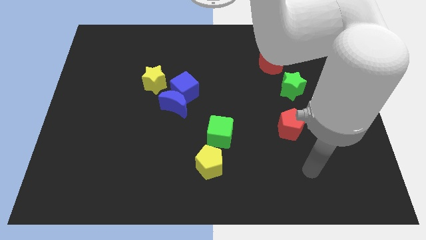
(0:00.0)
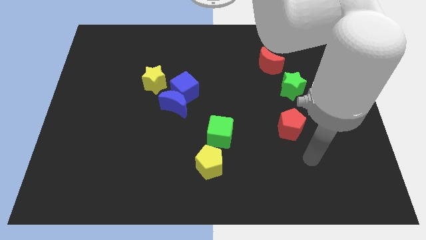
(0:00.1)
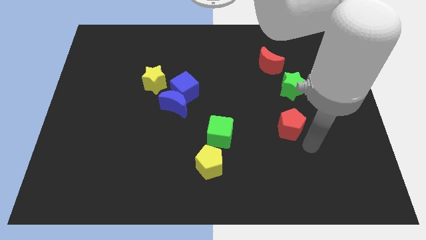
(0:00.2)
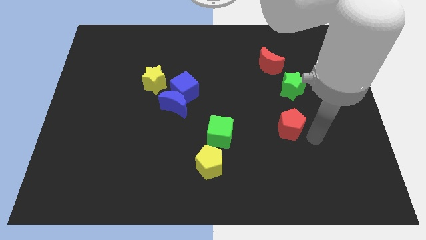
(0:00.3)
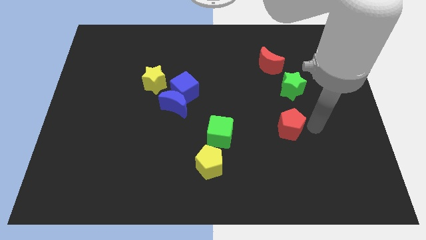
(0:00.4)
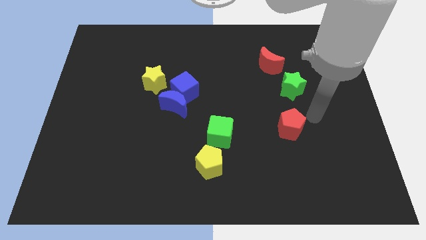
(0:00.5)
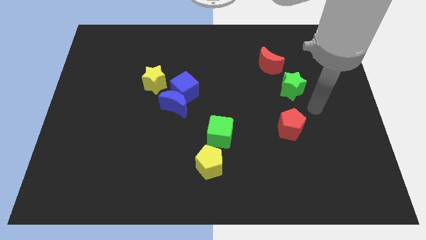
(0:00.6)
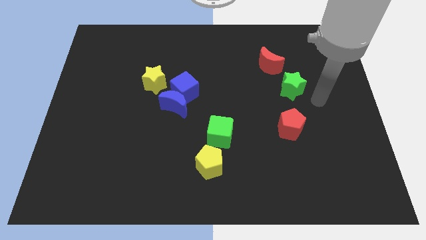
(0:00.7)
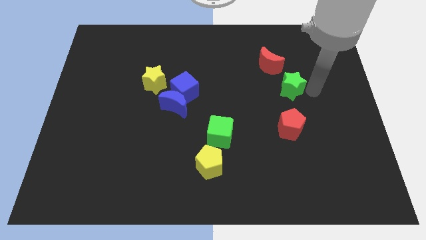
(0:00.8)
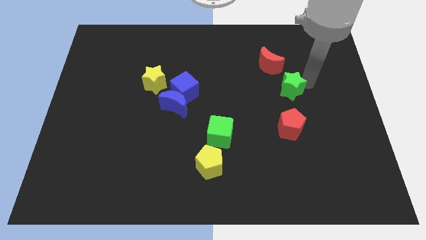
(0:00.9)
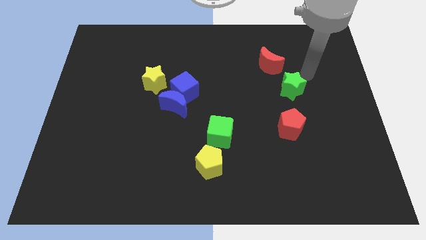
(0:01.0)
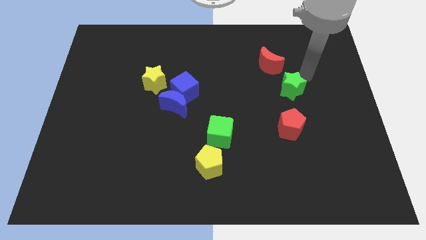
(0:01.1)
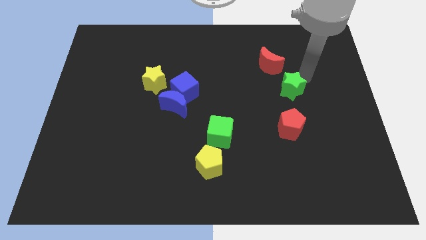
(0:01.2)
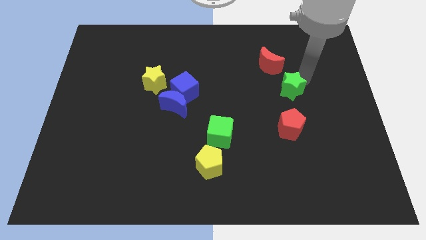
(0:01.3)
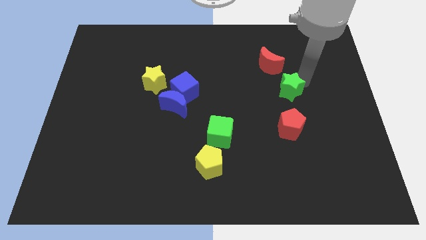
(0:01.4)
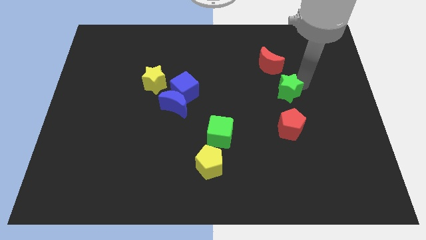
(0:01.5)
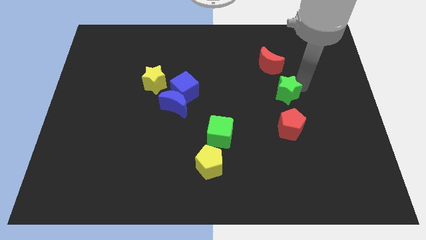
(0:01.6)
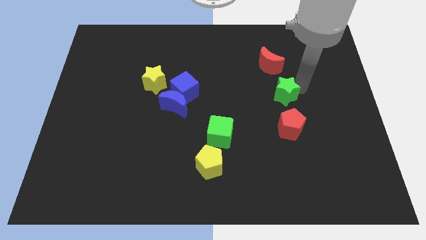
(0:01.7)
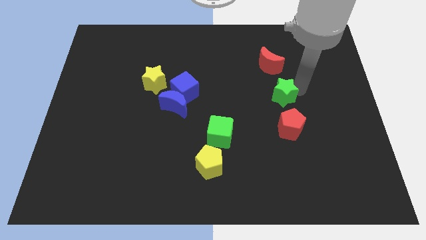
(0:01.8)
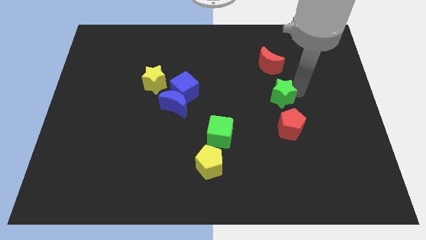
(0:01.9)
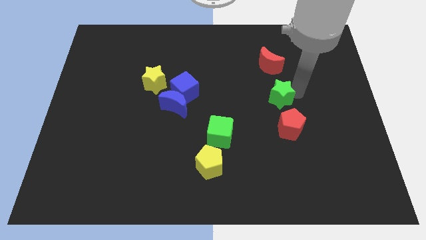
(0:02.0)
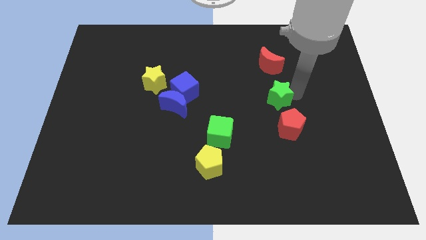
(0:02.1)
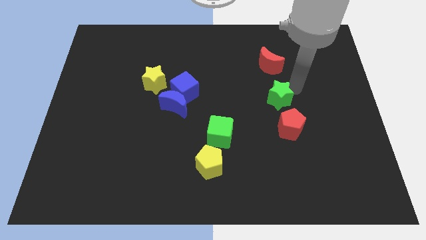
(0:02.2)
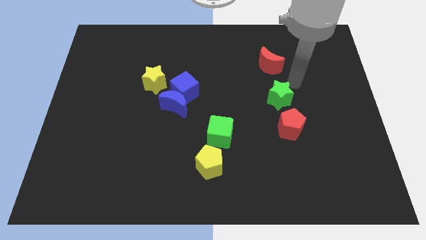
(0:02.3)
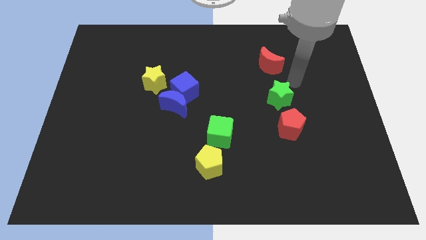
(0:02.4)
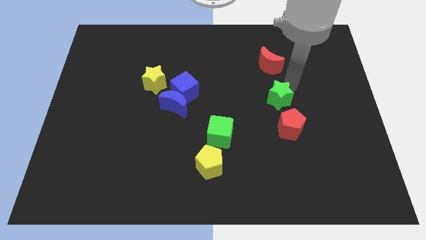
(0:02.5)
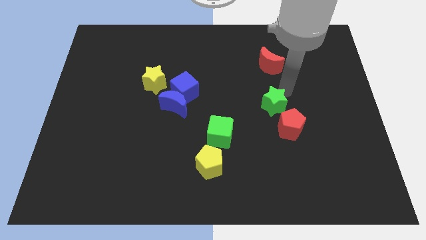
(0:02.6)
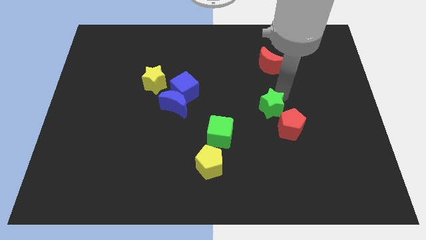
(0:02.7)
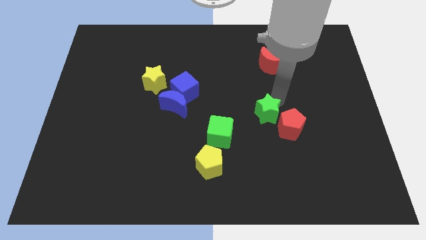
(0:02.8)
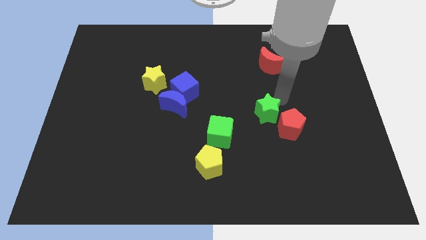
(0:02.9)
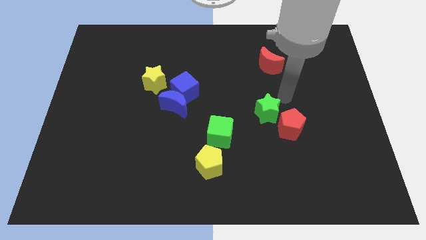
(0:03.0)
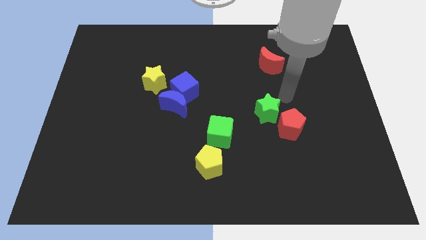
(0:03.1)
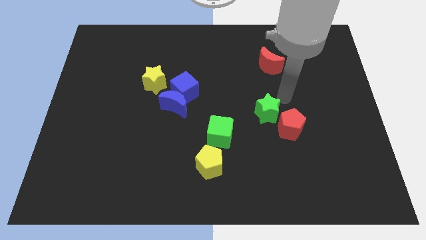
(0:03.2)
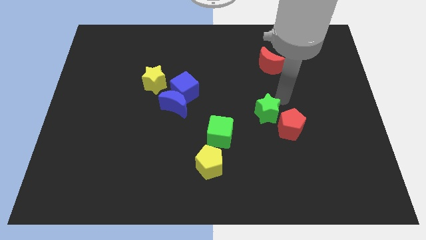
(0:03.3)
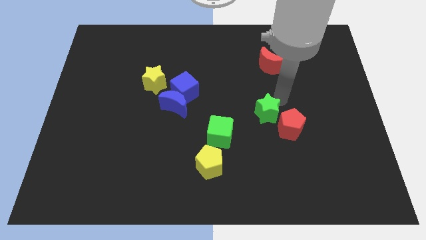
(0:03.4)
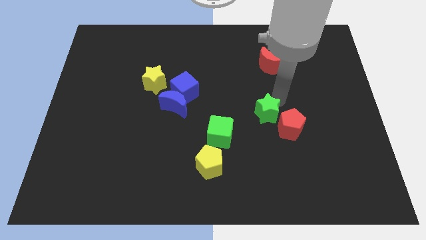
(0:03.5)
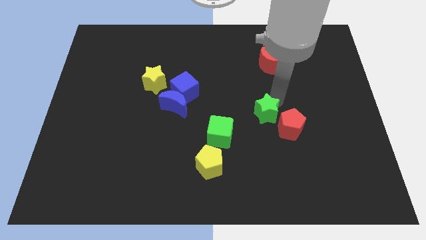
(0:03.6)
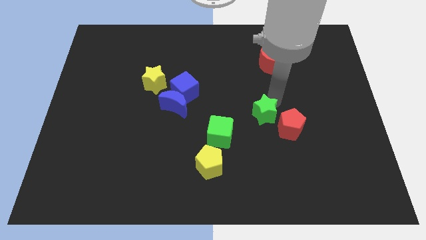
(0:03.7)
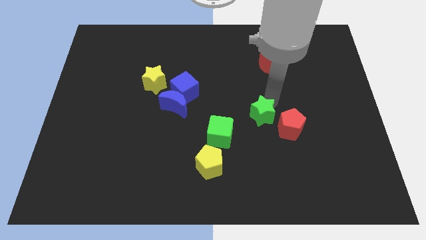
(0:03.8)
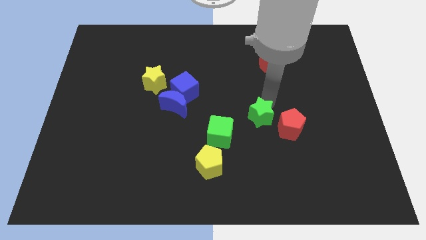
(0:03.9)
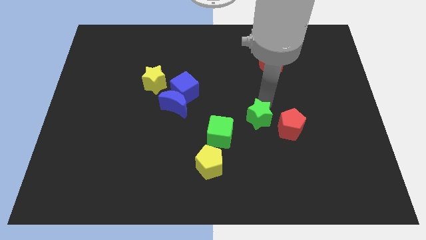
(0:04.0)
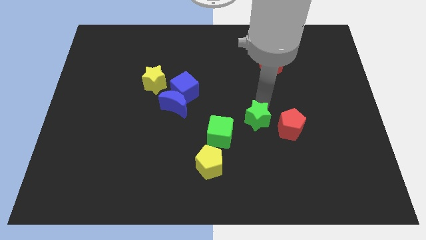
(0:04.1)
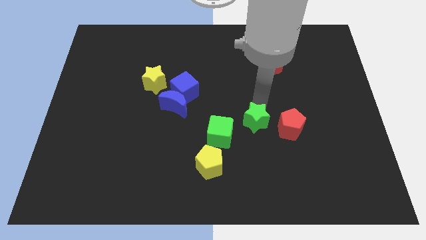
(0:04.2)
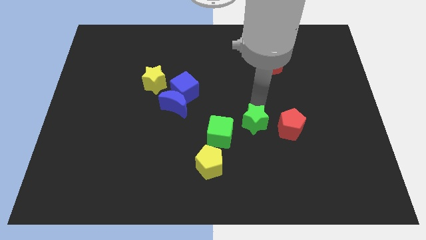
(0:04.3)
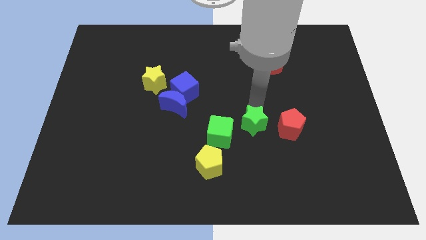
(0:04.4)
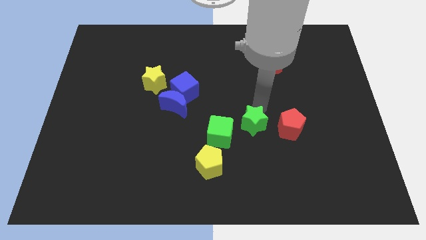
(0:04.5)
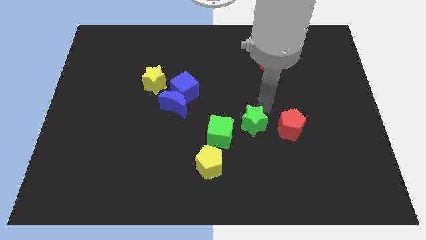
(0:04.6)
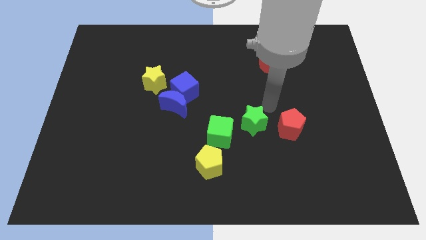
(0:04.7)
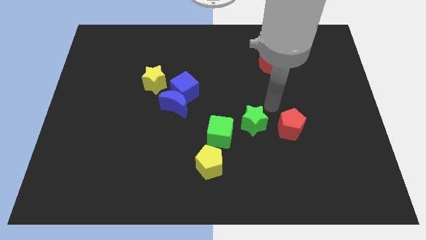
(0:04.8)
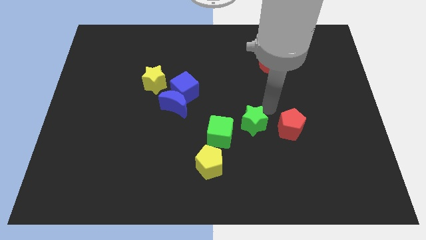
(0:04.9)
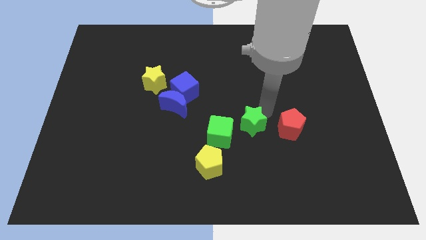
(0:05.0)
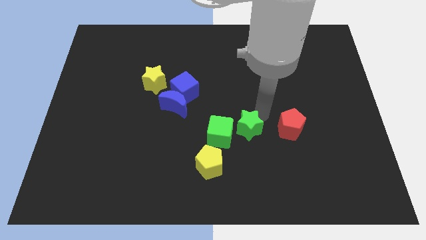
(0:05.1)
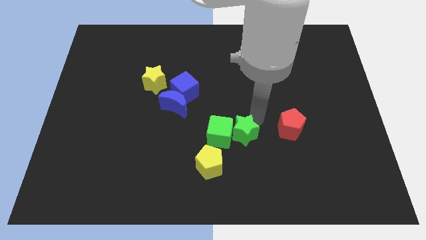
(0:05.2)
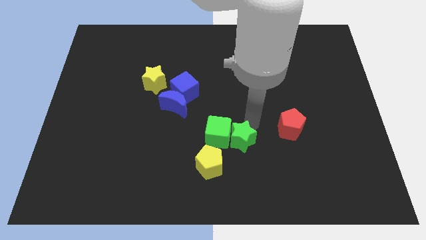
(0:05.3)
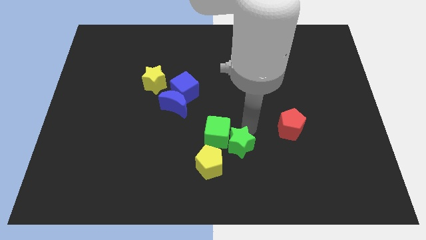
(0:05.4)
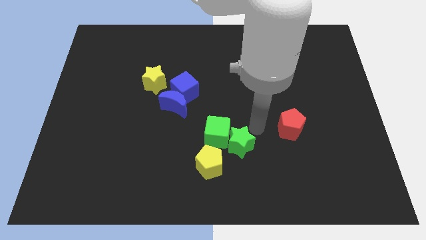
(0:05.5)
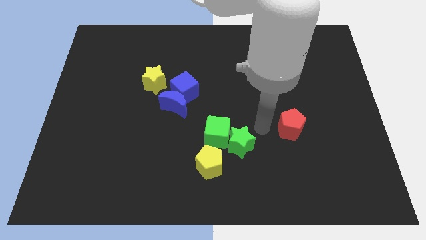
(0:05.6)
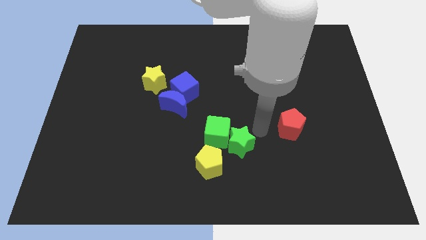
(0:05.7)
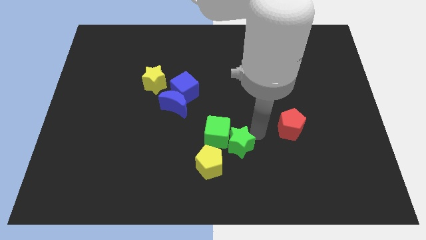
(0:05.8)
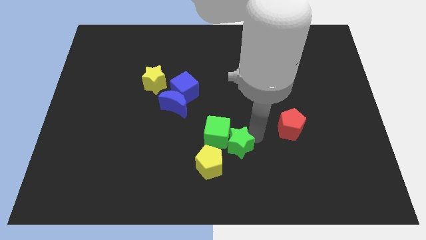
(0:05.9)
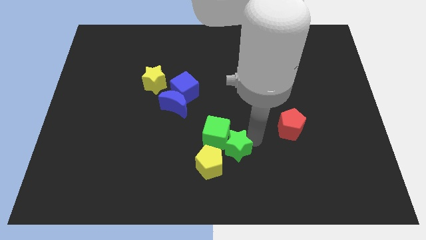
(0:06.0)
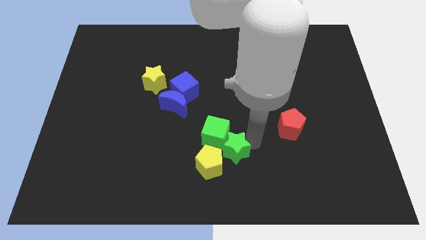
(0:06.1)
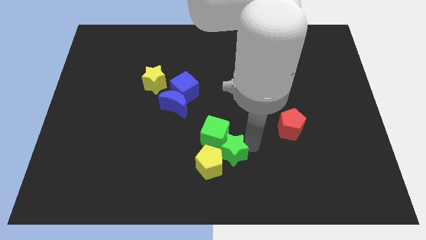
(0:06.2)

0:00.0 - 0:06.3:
move the green star towards the yellow pentagon

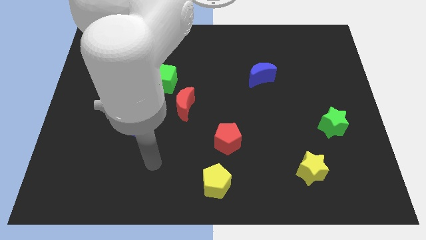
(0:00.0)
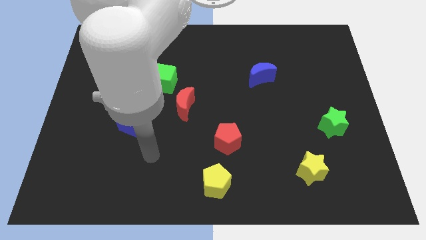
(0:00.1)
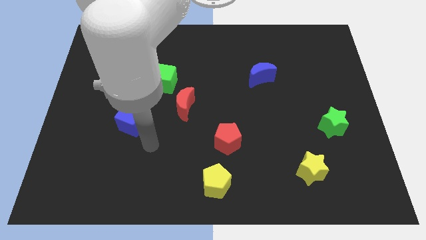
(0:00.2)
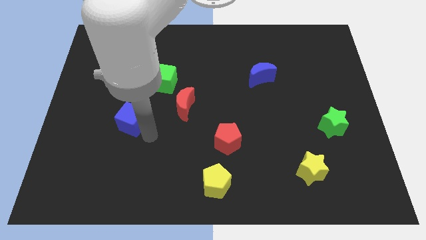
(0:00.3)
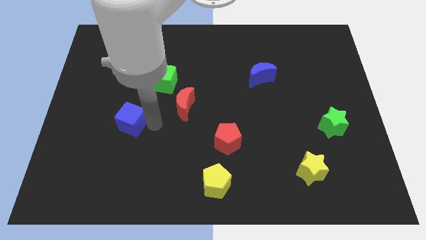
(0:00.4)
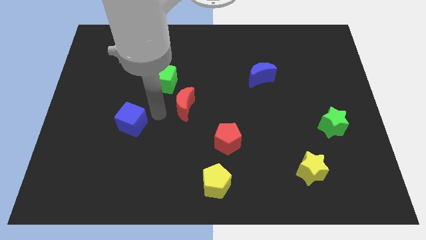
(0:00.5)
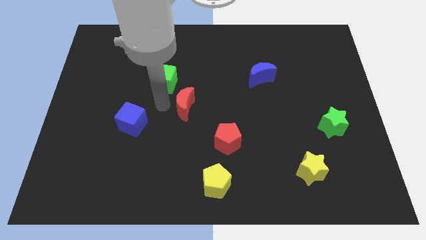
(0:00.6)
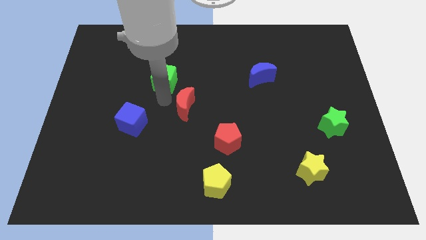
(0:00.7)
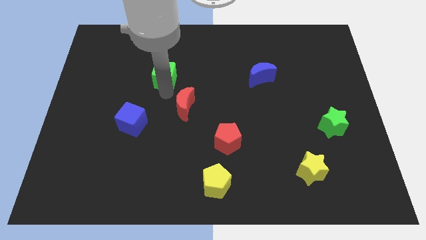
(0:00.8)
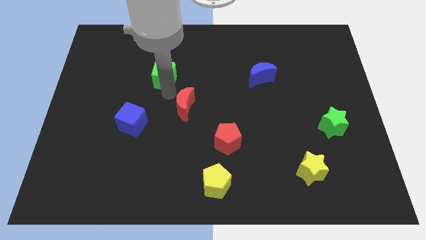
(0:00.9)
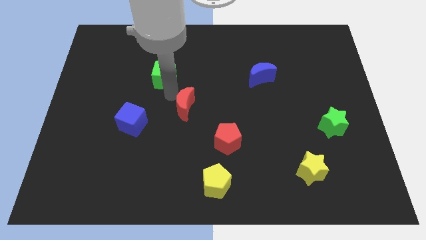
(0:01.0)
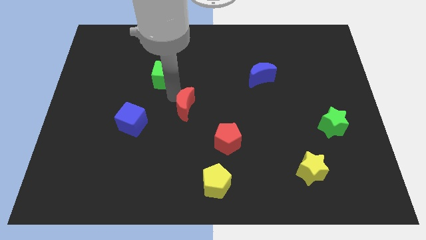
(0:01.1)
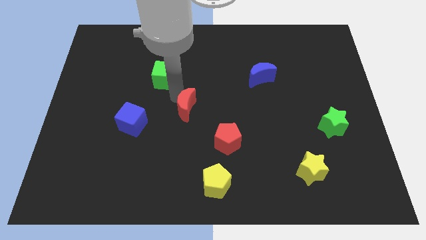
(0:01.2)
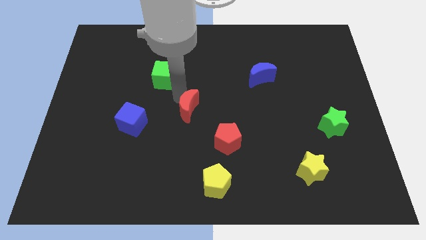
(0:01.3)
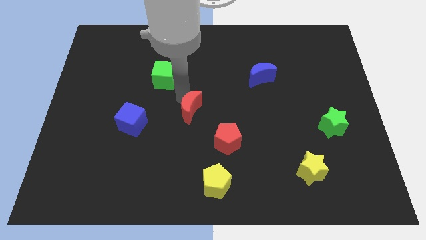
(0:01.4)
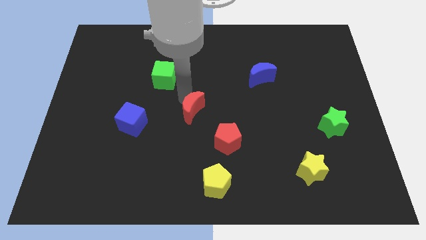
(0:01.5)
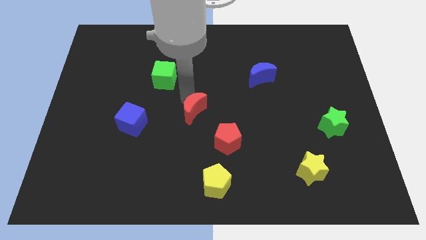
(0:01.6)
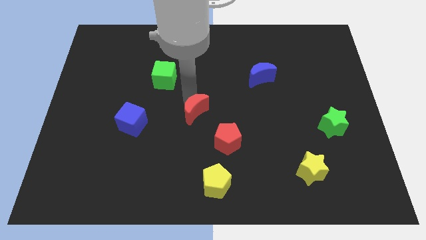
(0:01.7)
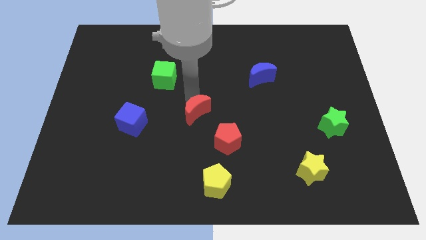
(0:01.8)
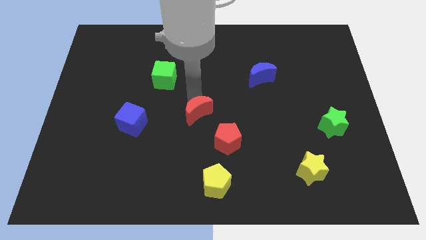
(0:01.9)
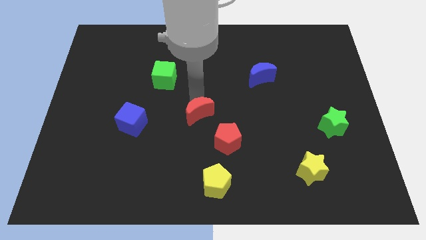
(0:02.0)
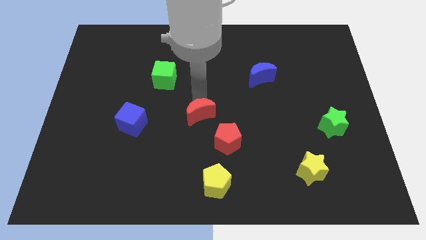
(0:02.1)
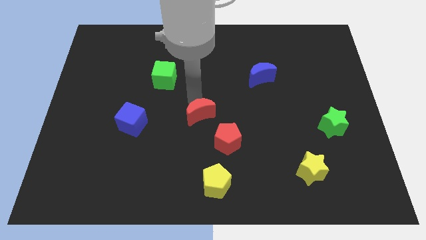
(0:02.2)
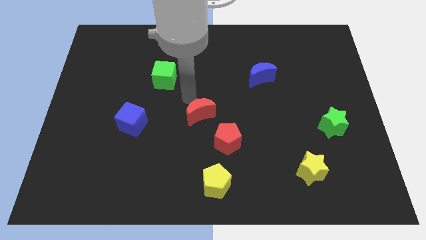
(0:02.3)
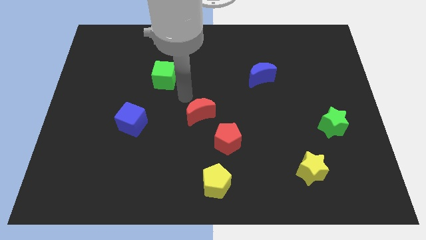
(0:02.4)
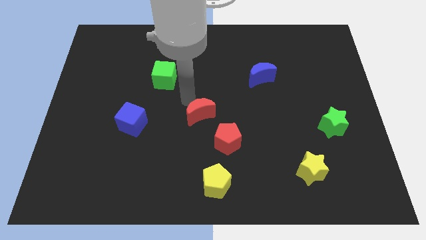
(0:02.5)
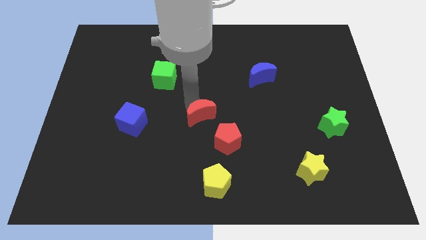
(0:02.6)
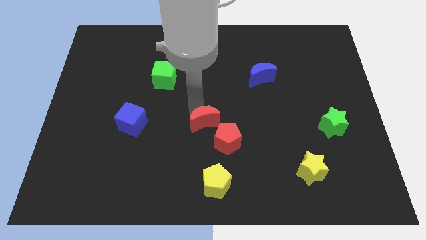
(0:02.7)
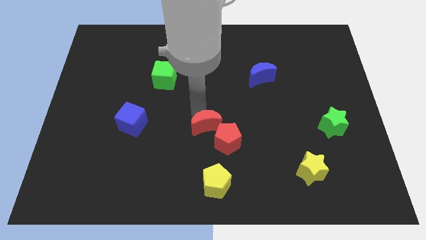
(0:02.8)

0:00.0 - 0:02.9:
slide the red moon close to the red pentagon
